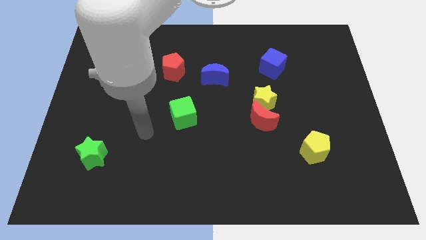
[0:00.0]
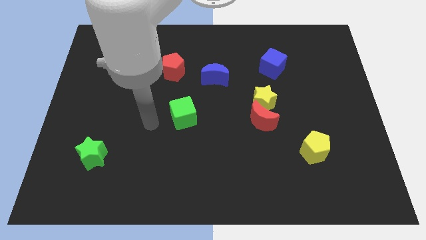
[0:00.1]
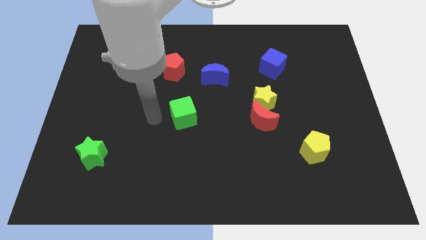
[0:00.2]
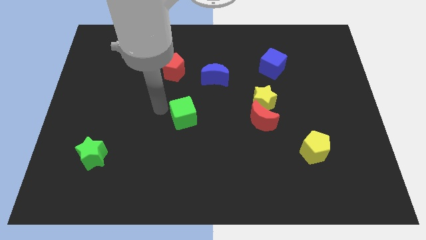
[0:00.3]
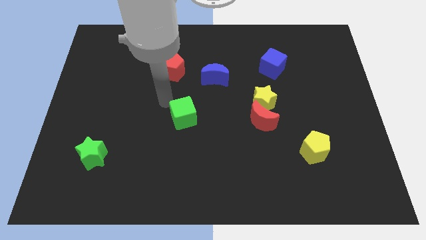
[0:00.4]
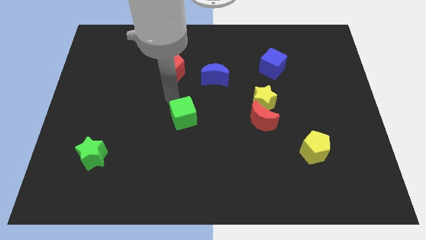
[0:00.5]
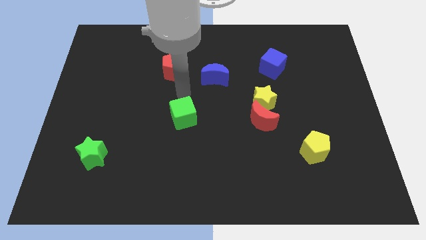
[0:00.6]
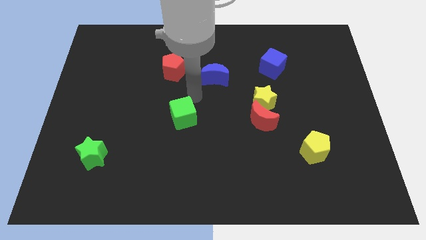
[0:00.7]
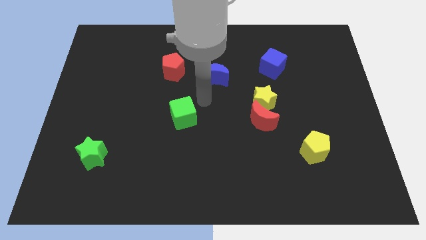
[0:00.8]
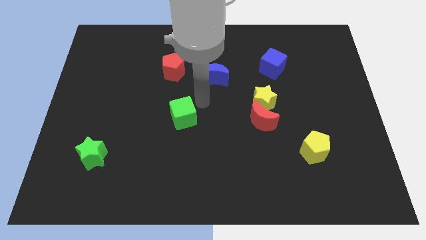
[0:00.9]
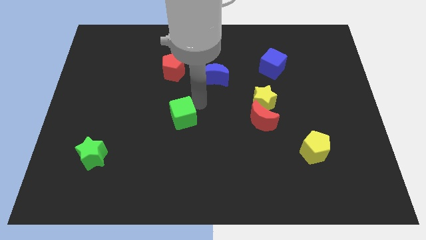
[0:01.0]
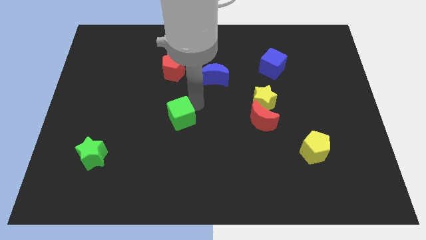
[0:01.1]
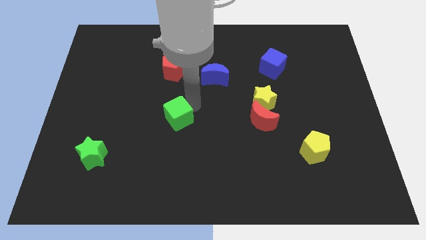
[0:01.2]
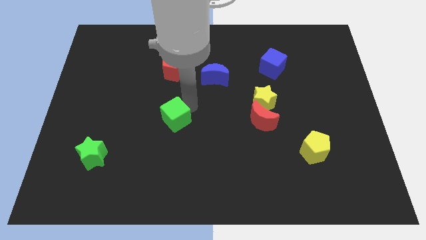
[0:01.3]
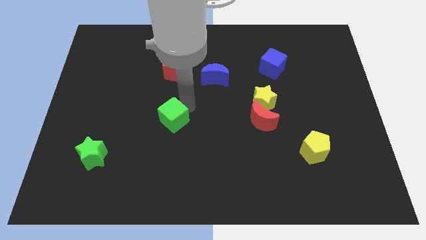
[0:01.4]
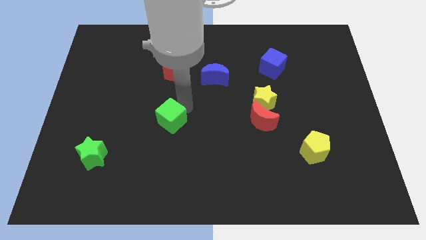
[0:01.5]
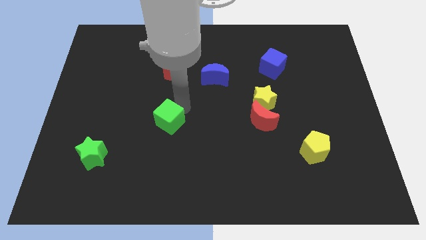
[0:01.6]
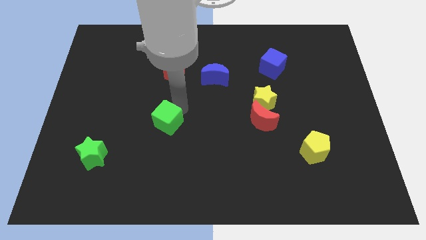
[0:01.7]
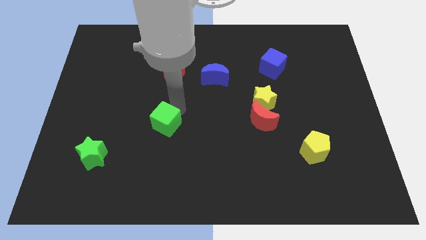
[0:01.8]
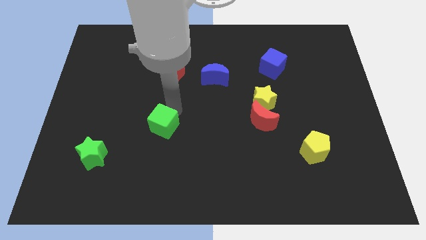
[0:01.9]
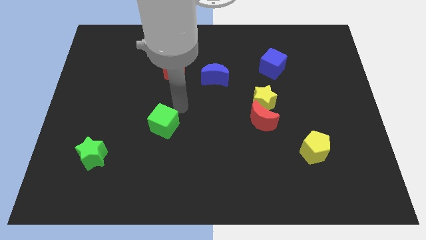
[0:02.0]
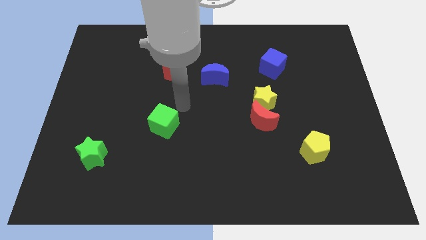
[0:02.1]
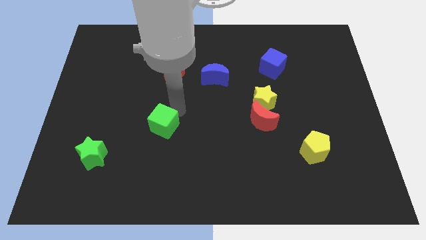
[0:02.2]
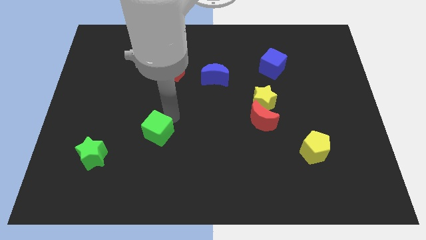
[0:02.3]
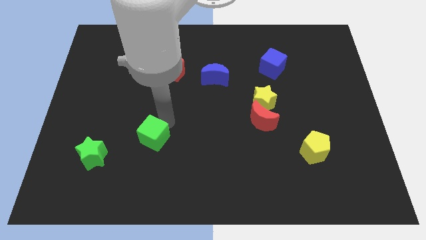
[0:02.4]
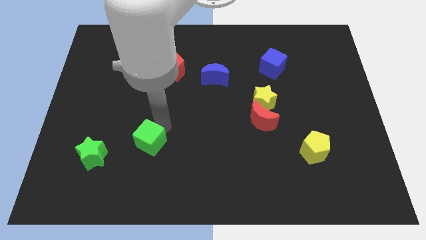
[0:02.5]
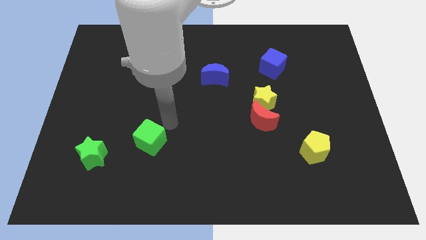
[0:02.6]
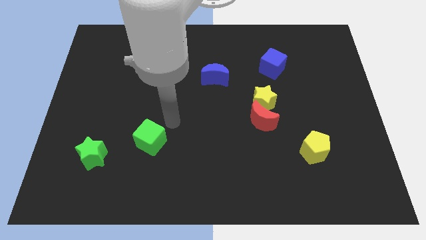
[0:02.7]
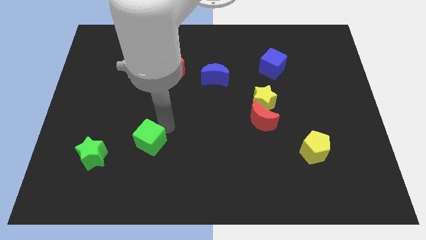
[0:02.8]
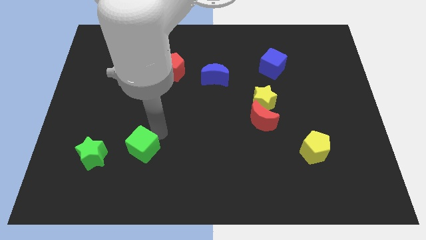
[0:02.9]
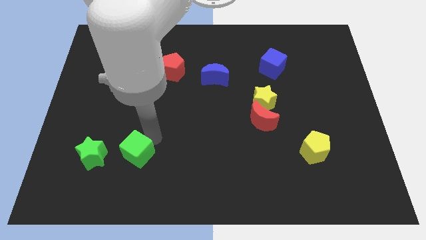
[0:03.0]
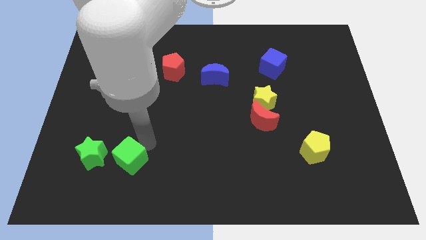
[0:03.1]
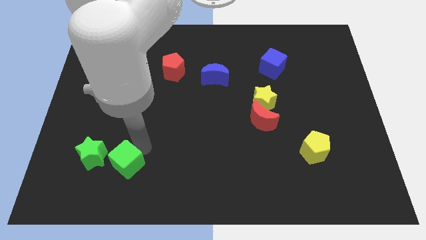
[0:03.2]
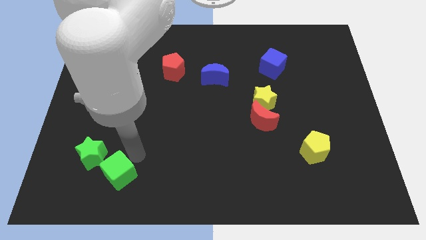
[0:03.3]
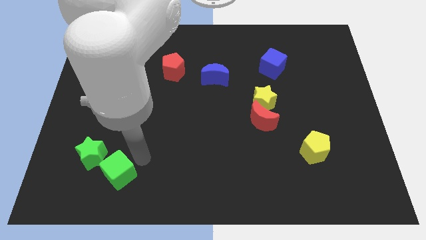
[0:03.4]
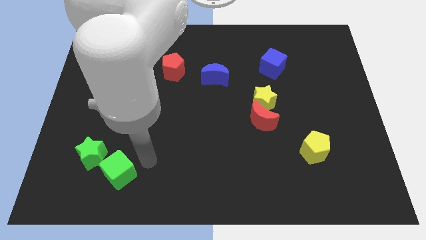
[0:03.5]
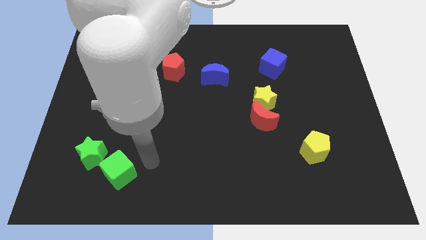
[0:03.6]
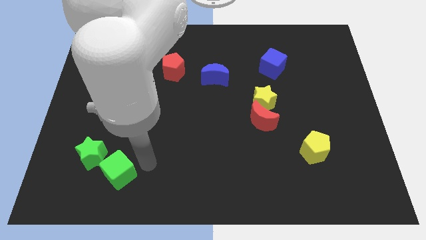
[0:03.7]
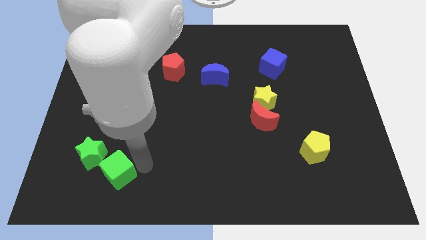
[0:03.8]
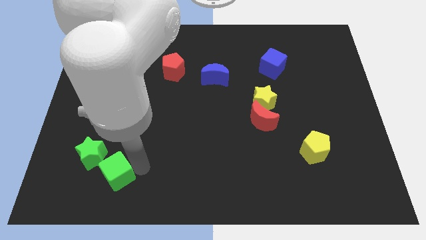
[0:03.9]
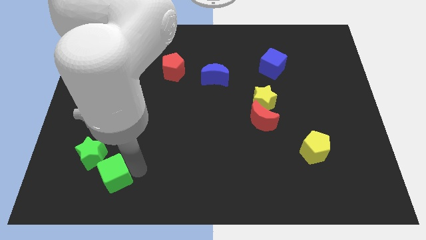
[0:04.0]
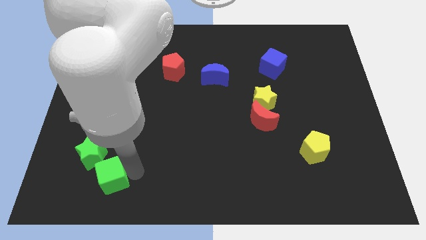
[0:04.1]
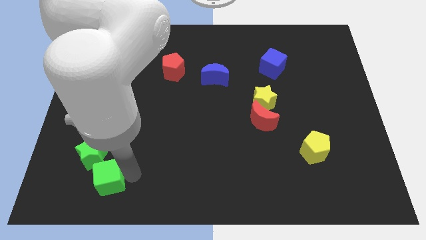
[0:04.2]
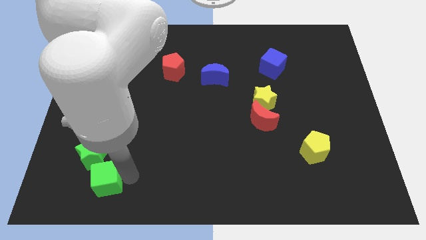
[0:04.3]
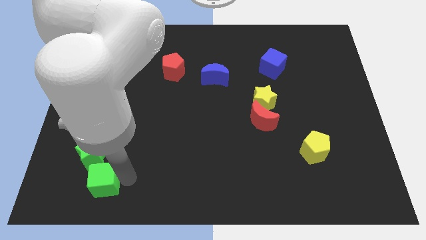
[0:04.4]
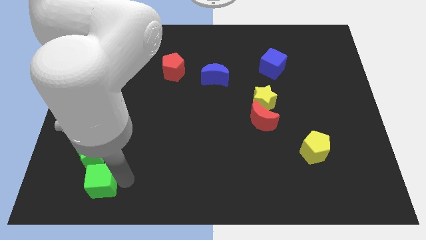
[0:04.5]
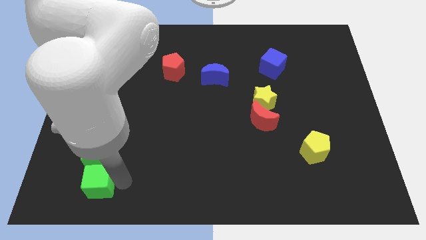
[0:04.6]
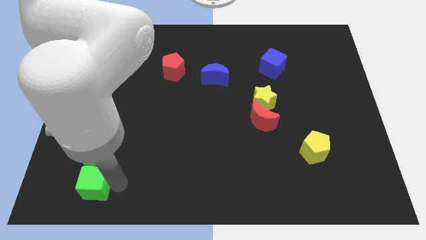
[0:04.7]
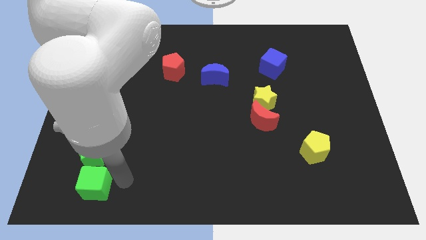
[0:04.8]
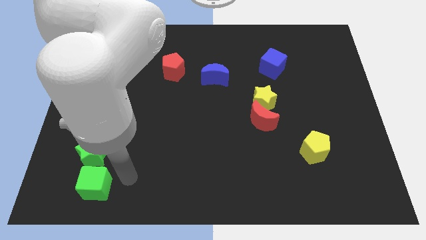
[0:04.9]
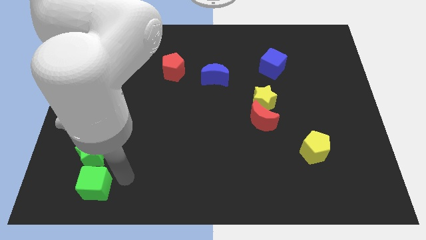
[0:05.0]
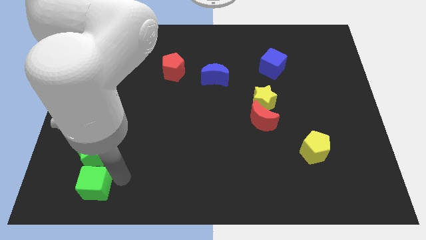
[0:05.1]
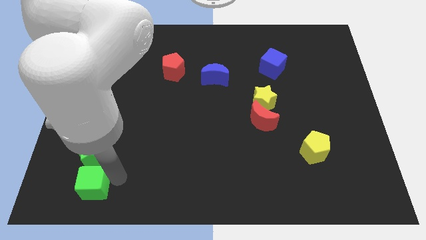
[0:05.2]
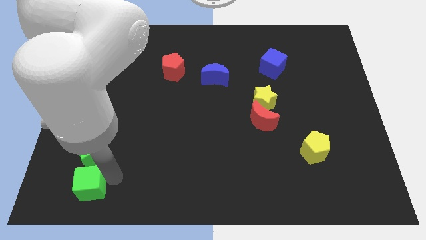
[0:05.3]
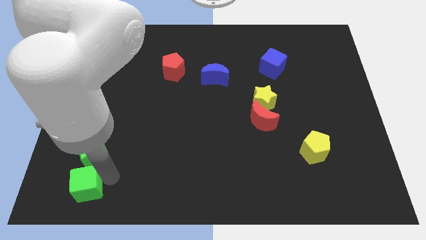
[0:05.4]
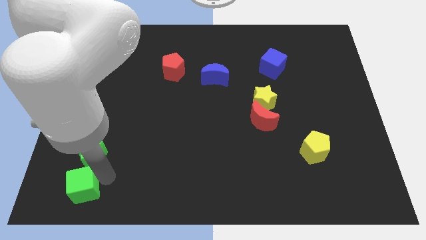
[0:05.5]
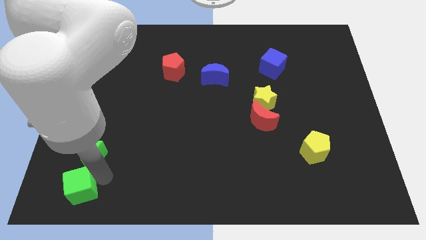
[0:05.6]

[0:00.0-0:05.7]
move the green cube to the bottom left corner
